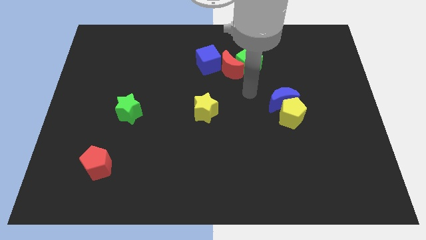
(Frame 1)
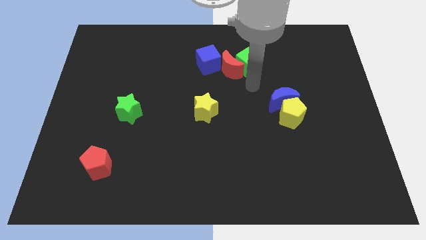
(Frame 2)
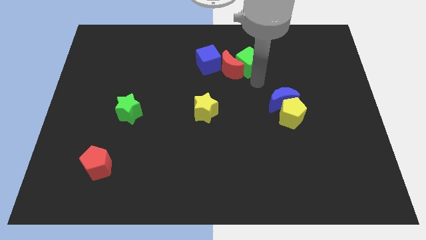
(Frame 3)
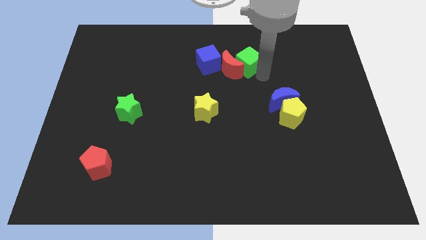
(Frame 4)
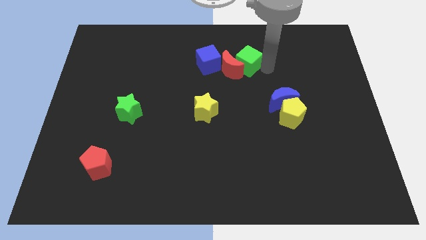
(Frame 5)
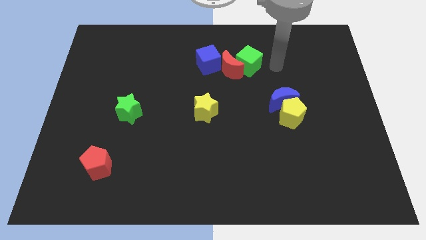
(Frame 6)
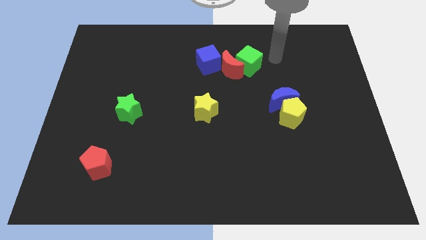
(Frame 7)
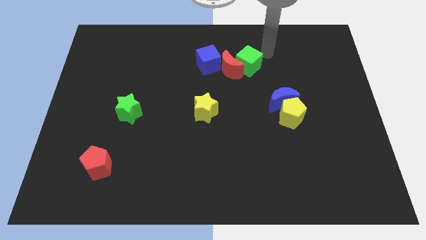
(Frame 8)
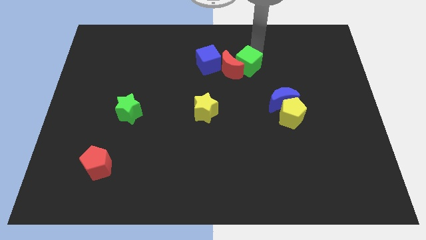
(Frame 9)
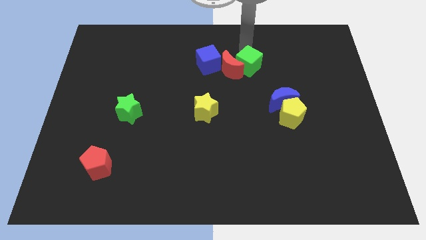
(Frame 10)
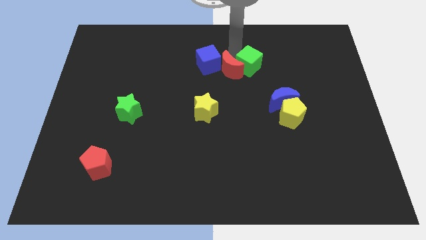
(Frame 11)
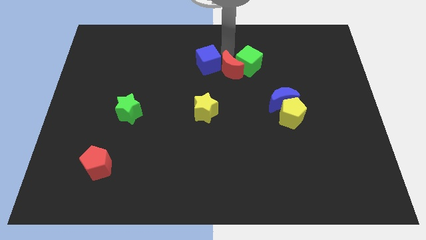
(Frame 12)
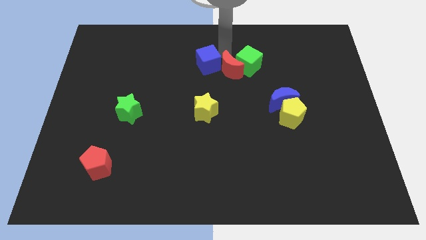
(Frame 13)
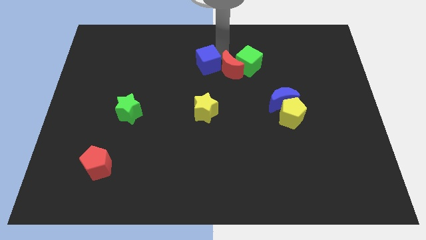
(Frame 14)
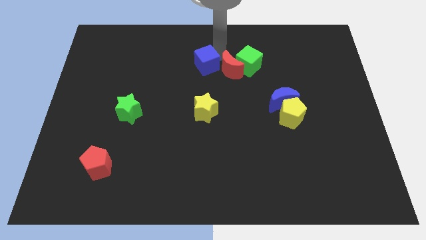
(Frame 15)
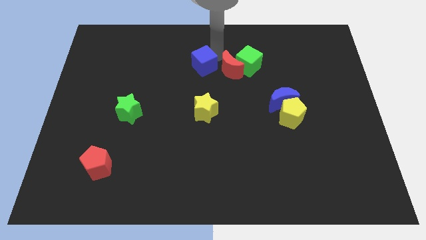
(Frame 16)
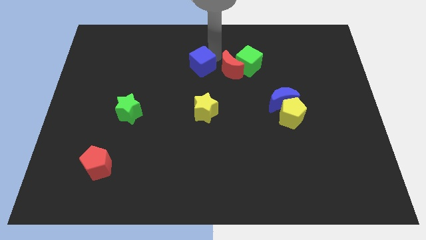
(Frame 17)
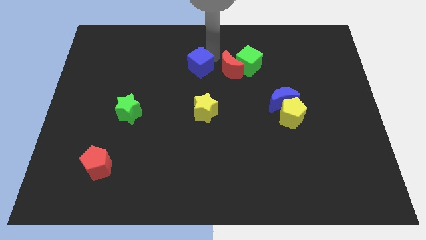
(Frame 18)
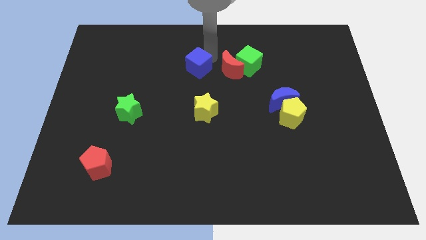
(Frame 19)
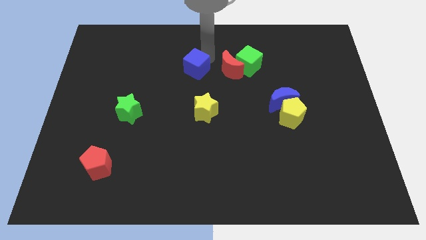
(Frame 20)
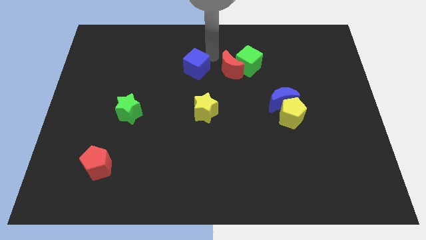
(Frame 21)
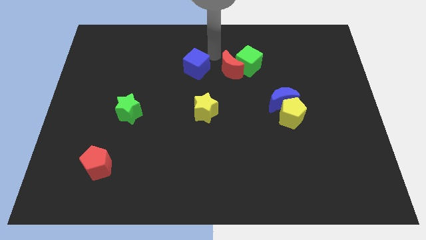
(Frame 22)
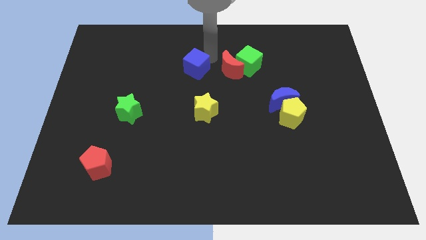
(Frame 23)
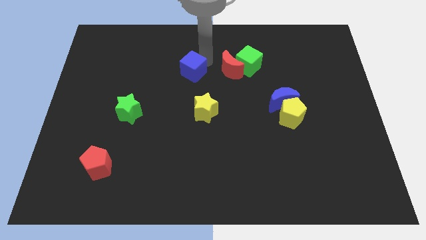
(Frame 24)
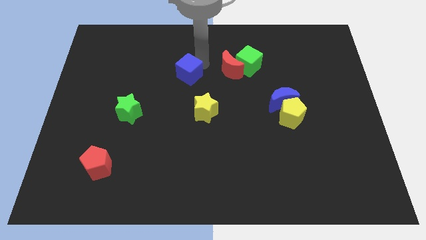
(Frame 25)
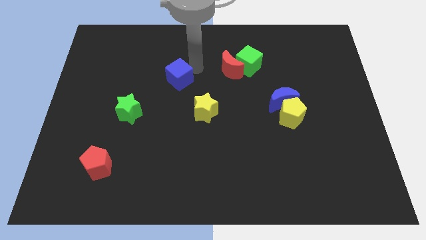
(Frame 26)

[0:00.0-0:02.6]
slide the blue cube a little bit down and left

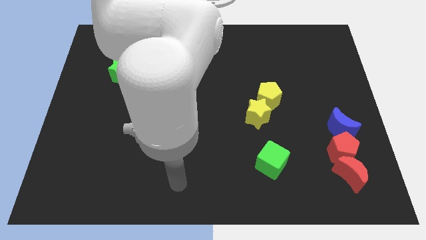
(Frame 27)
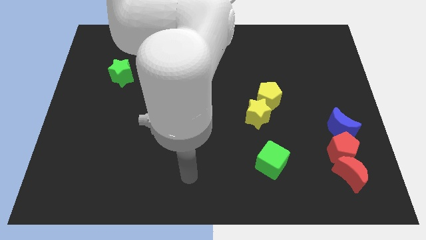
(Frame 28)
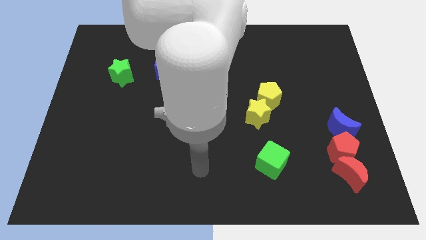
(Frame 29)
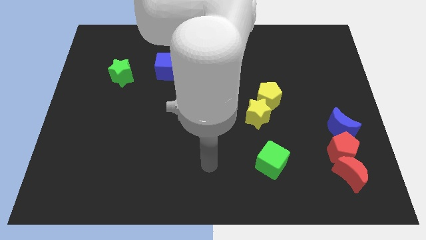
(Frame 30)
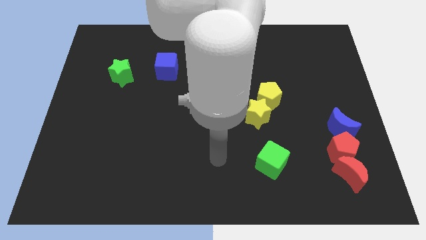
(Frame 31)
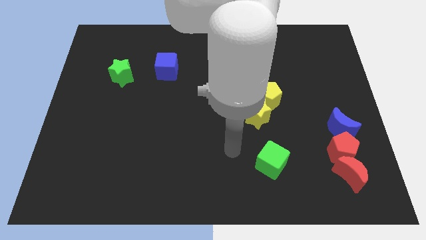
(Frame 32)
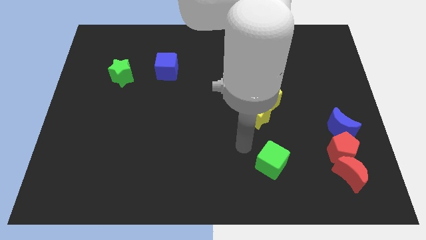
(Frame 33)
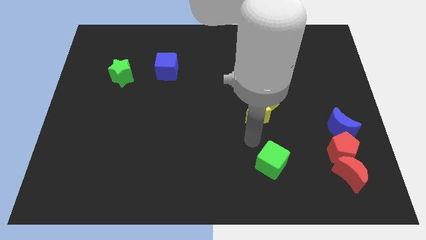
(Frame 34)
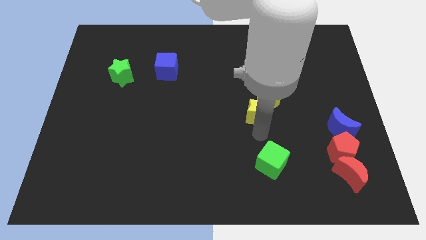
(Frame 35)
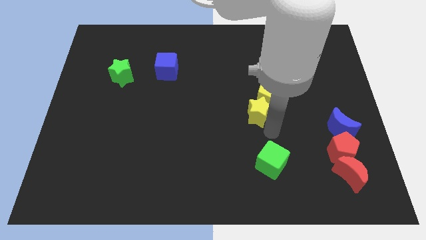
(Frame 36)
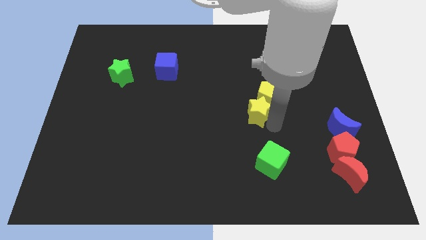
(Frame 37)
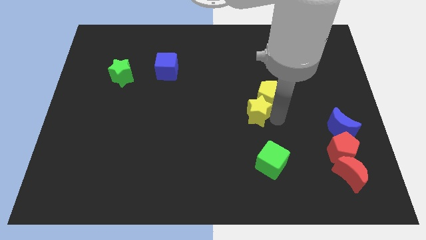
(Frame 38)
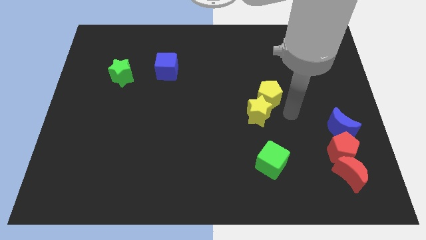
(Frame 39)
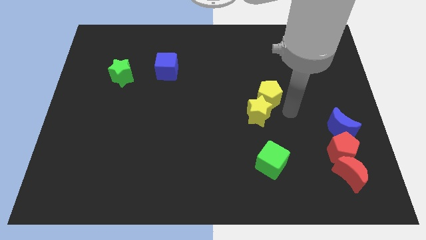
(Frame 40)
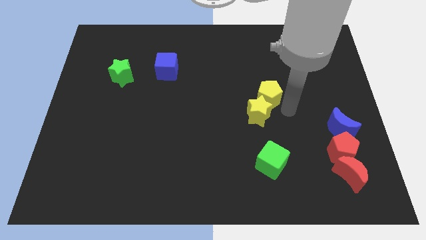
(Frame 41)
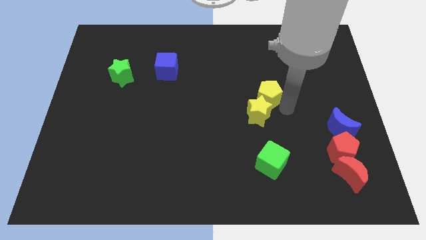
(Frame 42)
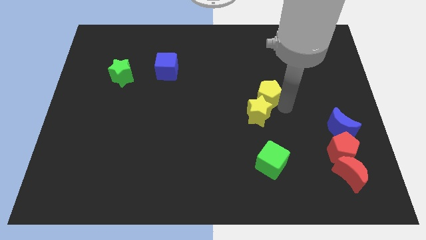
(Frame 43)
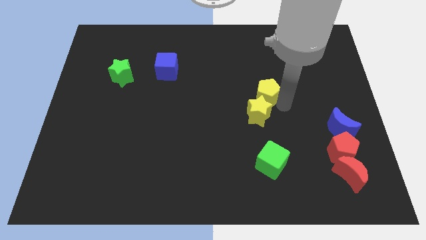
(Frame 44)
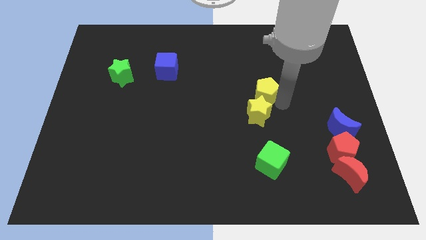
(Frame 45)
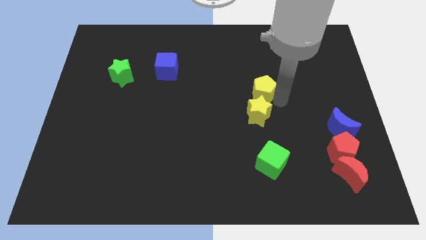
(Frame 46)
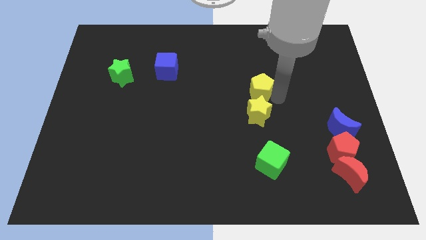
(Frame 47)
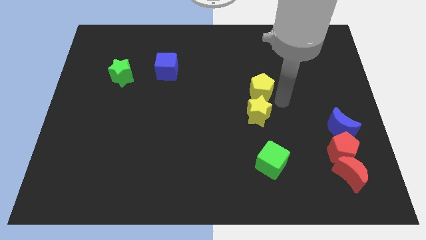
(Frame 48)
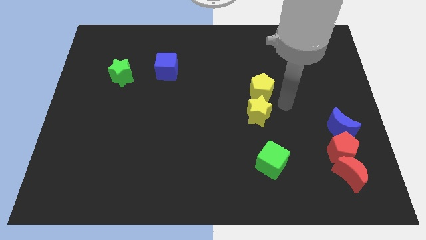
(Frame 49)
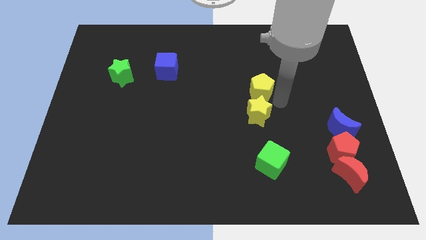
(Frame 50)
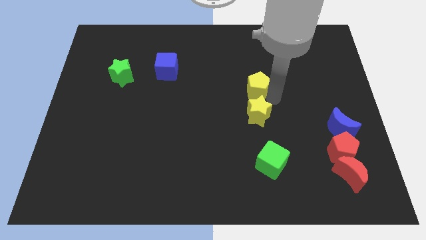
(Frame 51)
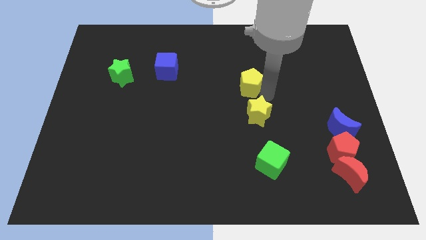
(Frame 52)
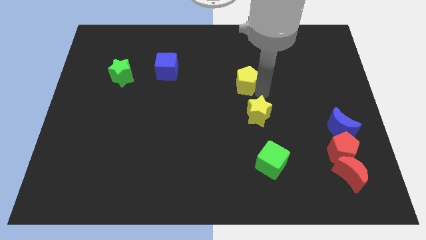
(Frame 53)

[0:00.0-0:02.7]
push the yellow pentagon upwards and then left slightly

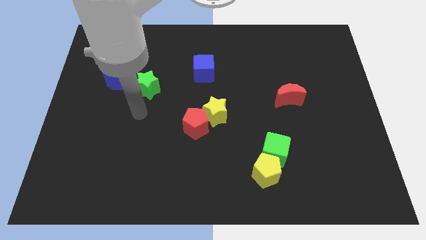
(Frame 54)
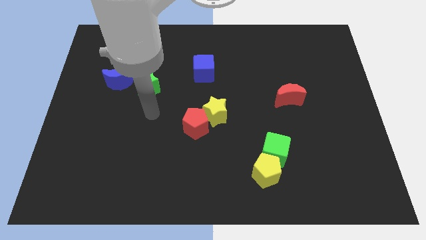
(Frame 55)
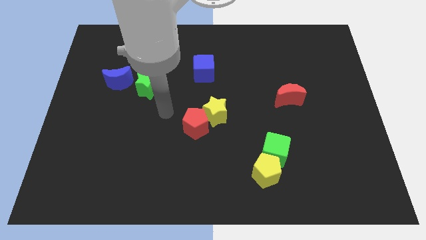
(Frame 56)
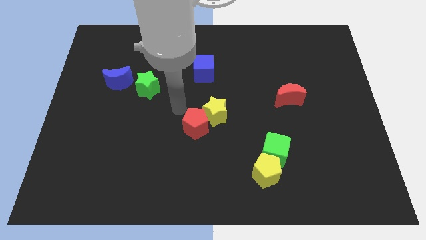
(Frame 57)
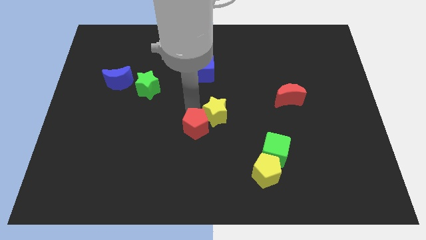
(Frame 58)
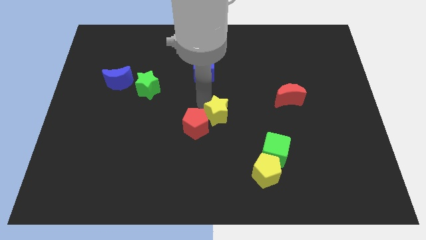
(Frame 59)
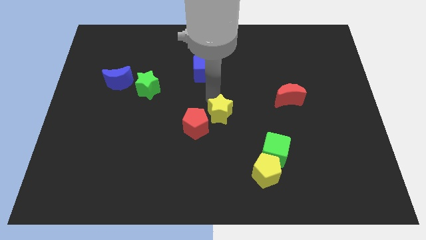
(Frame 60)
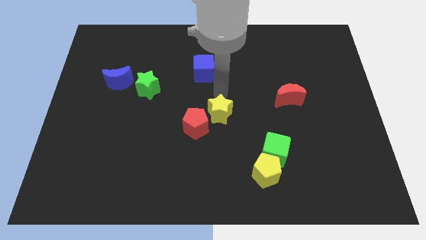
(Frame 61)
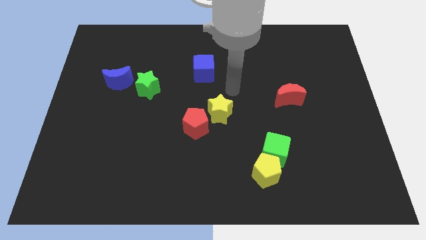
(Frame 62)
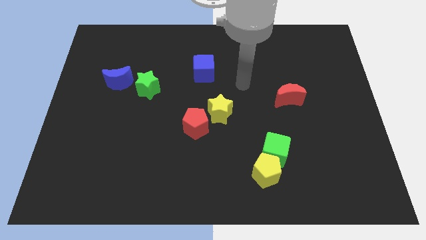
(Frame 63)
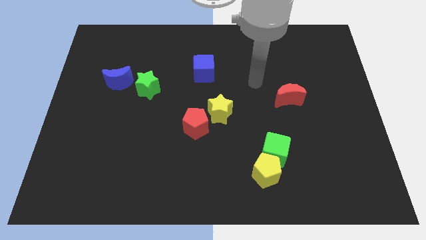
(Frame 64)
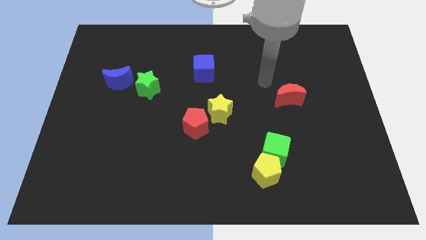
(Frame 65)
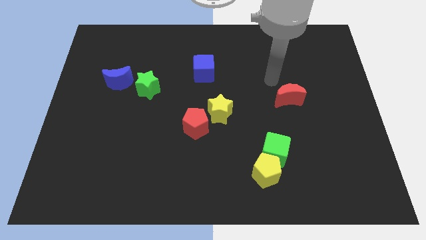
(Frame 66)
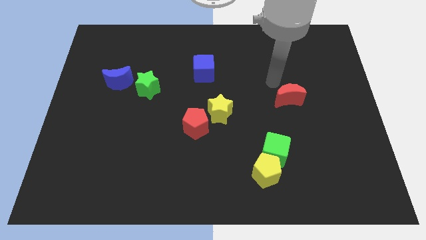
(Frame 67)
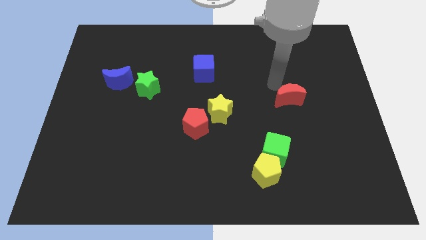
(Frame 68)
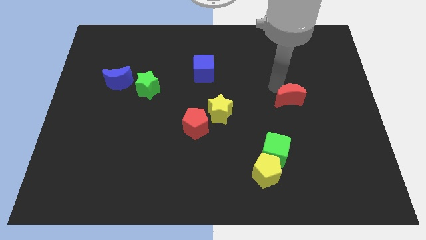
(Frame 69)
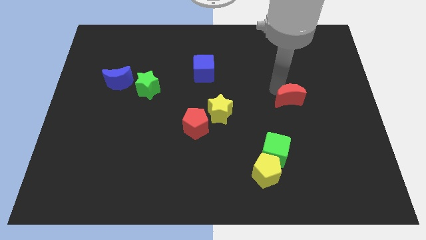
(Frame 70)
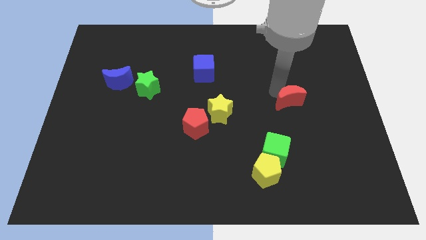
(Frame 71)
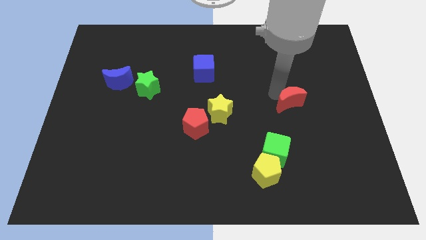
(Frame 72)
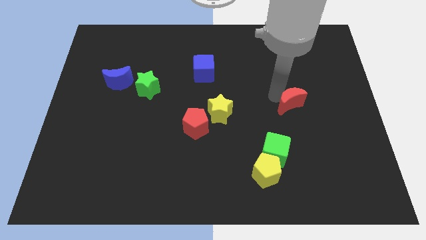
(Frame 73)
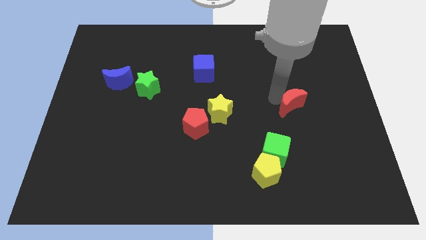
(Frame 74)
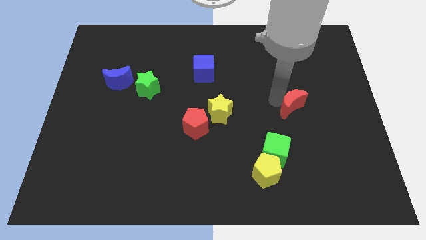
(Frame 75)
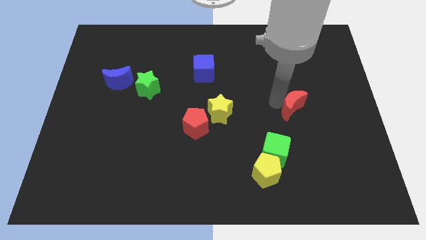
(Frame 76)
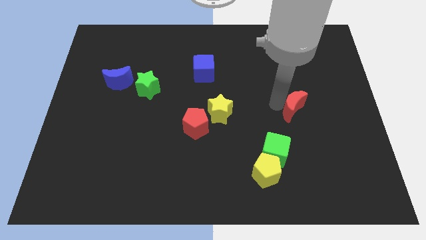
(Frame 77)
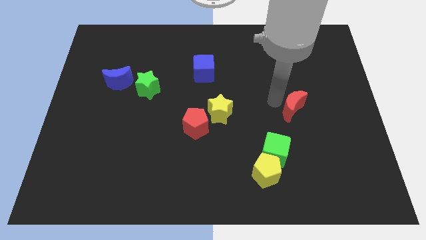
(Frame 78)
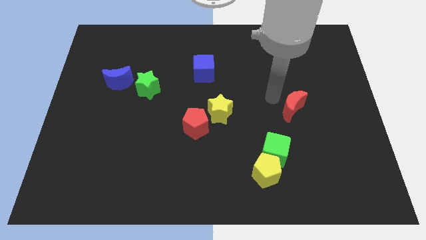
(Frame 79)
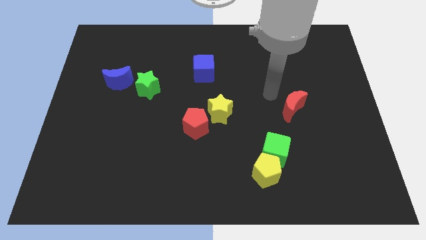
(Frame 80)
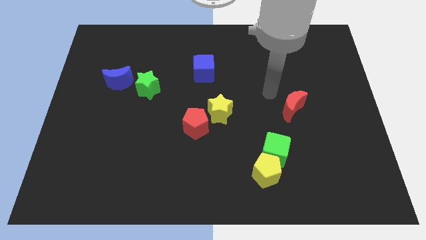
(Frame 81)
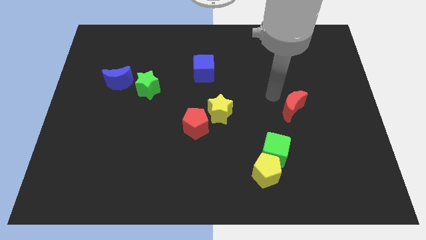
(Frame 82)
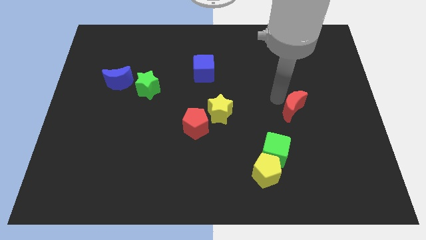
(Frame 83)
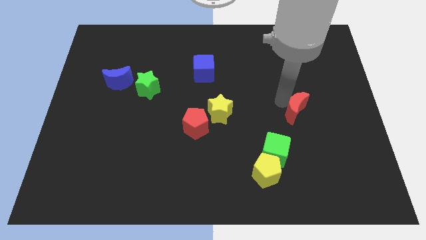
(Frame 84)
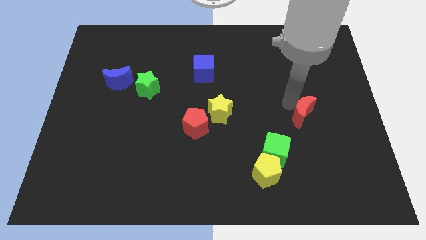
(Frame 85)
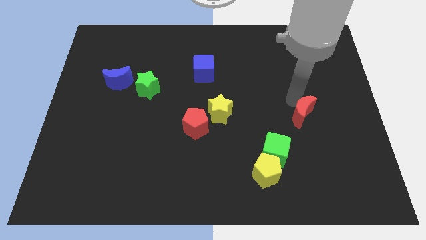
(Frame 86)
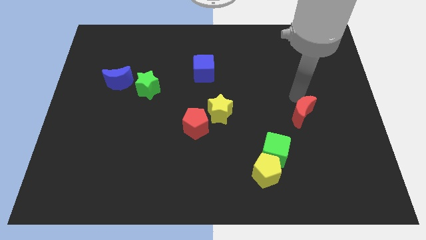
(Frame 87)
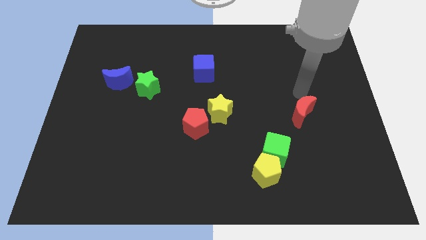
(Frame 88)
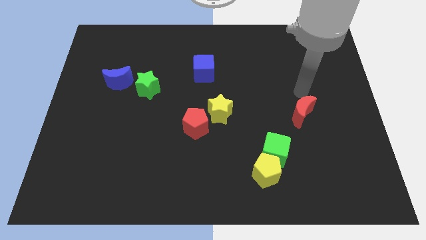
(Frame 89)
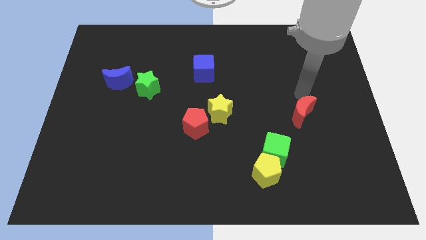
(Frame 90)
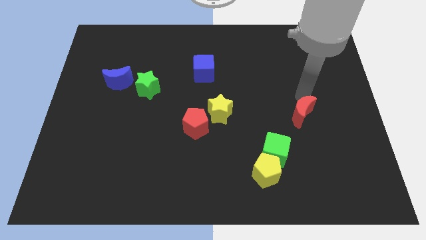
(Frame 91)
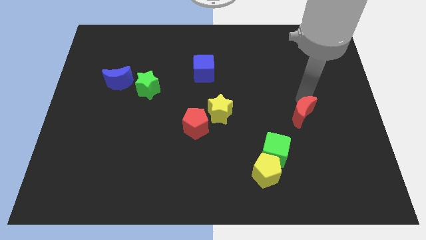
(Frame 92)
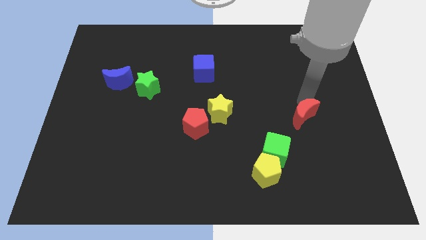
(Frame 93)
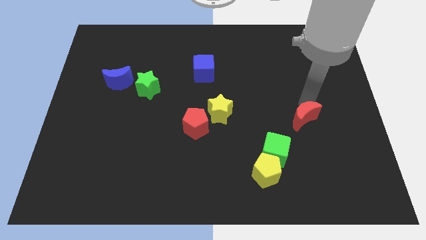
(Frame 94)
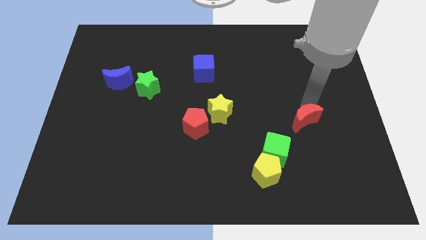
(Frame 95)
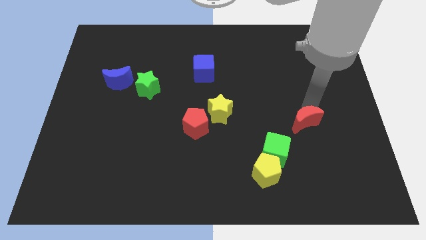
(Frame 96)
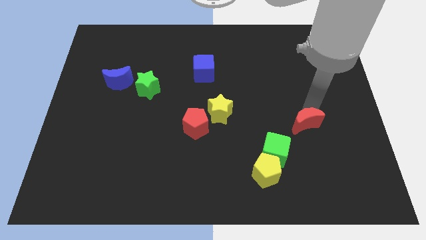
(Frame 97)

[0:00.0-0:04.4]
slightly slide the red moon downwards
